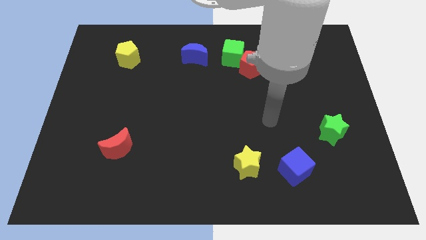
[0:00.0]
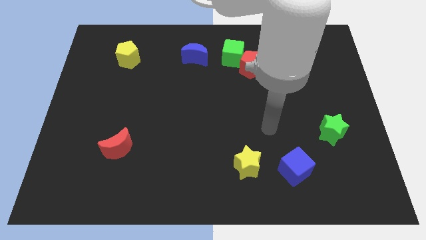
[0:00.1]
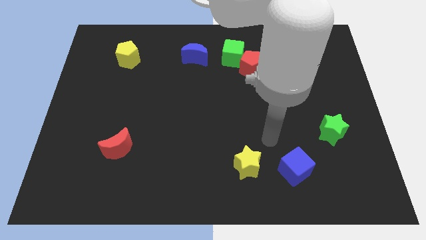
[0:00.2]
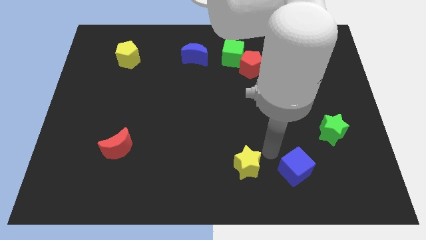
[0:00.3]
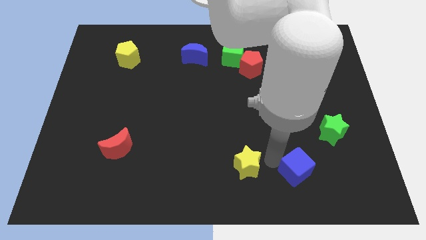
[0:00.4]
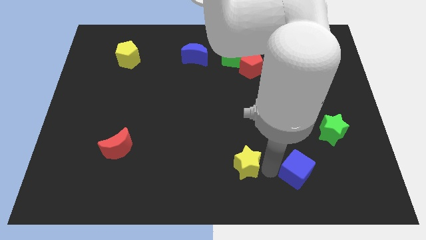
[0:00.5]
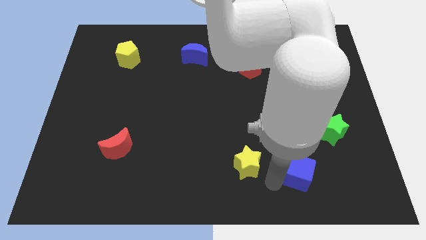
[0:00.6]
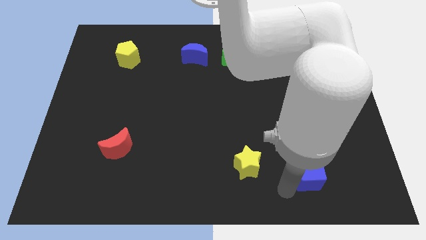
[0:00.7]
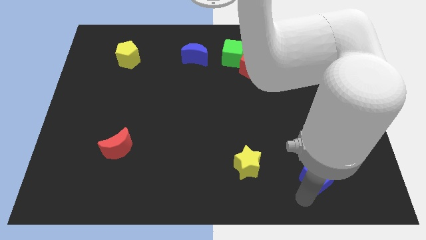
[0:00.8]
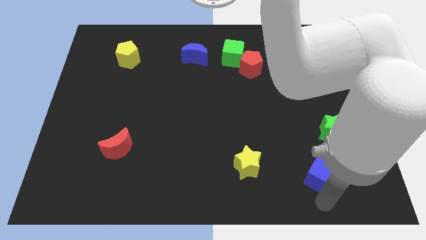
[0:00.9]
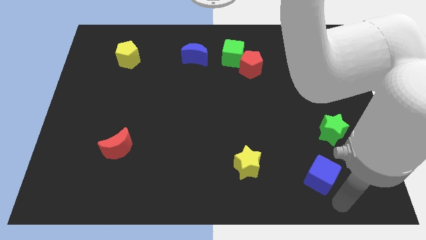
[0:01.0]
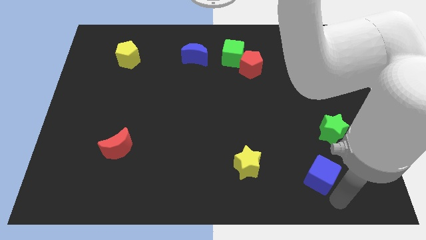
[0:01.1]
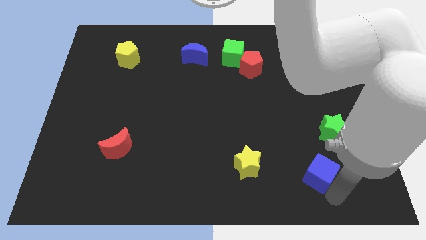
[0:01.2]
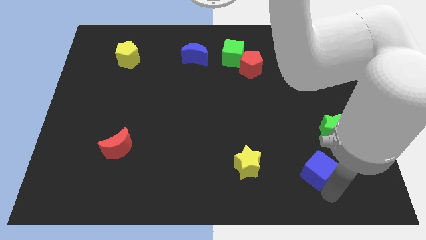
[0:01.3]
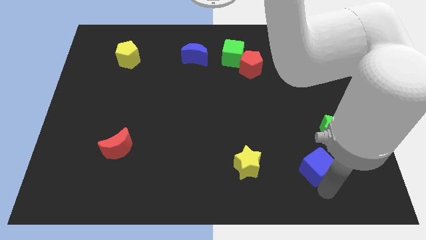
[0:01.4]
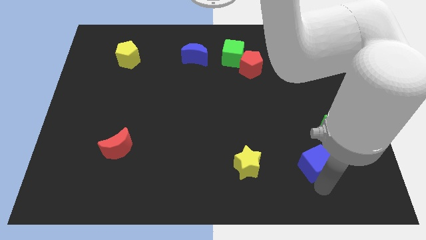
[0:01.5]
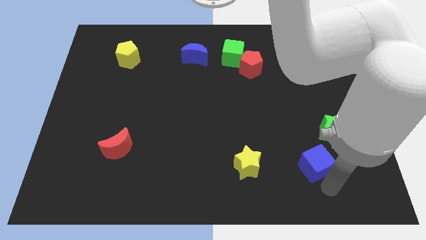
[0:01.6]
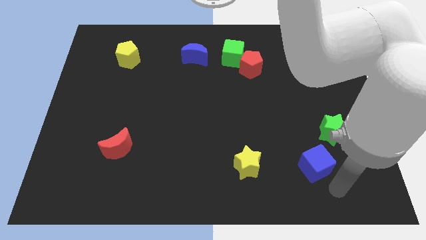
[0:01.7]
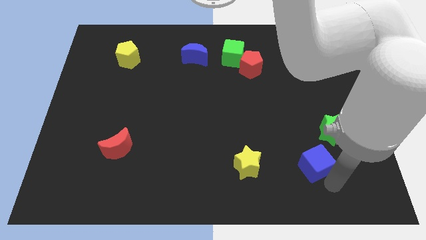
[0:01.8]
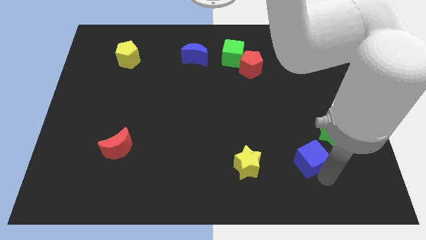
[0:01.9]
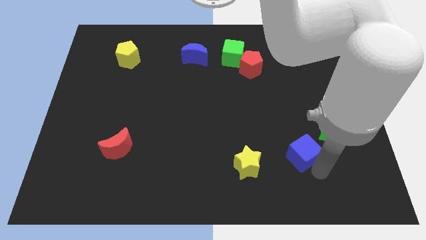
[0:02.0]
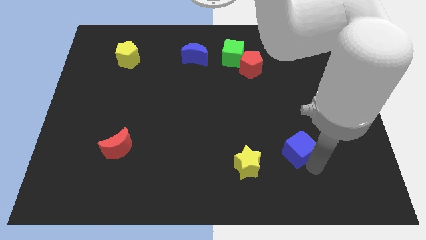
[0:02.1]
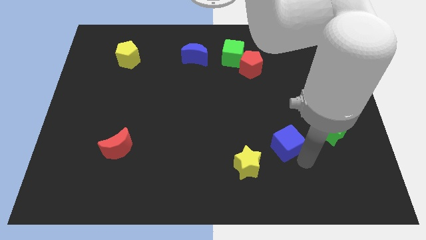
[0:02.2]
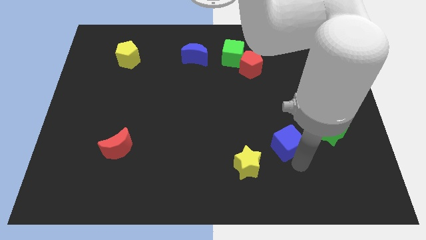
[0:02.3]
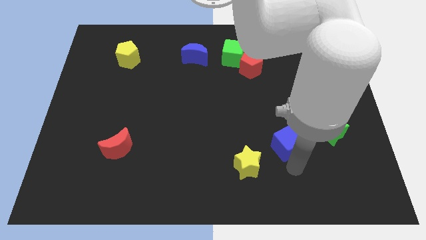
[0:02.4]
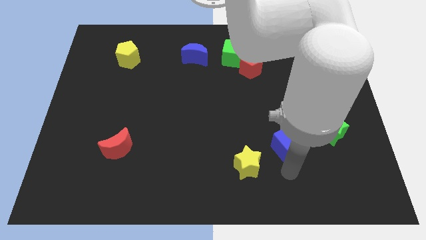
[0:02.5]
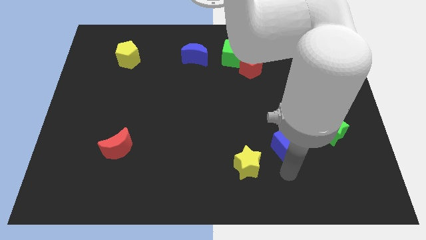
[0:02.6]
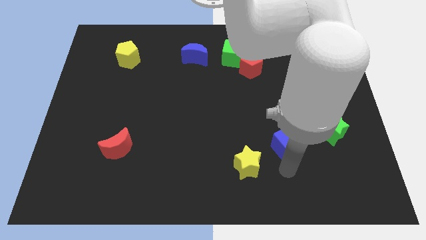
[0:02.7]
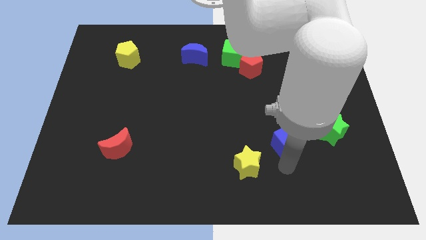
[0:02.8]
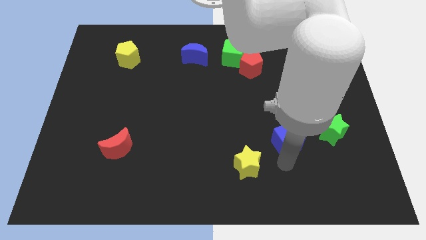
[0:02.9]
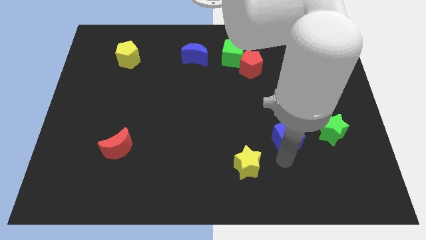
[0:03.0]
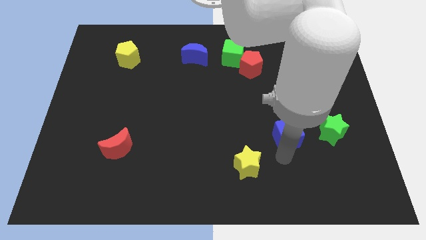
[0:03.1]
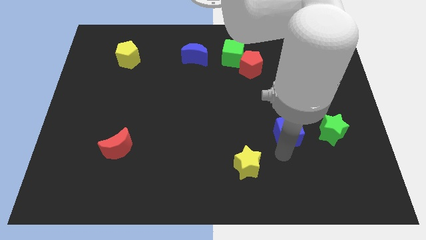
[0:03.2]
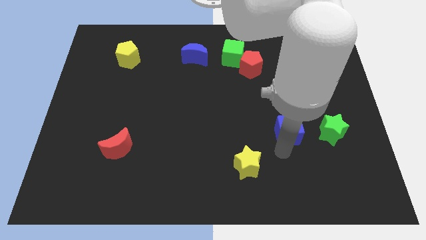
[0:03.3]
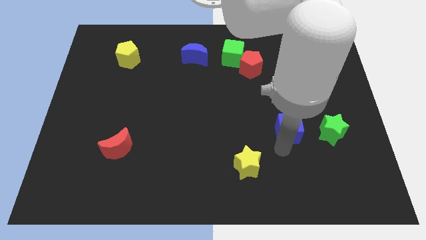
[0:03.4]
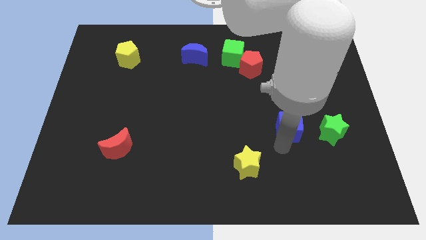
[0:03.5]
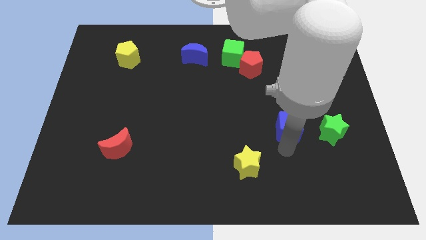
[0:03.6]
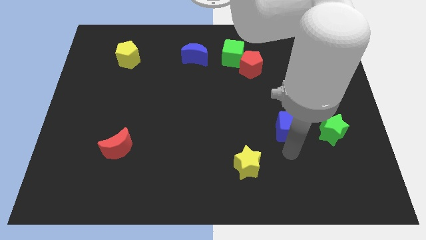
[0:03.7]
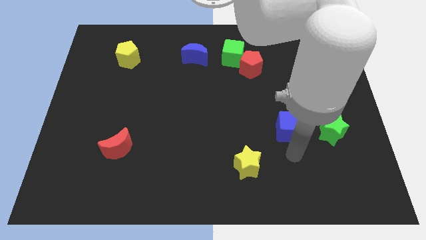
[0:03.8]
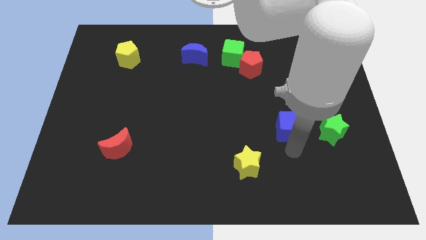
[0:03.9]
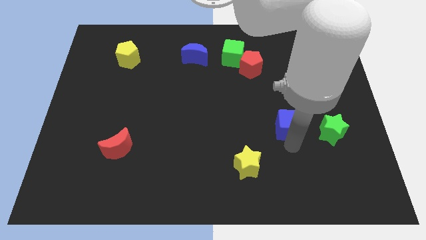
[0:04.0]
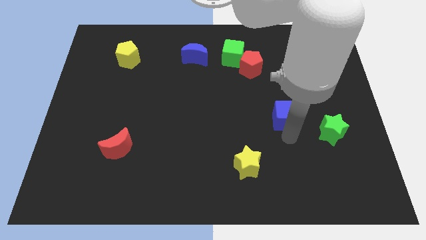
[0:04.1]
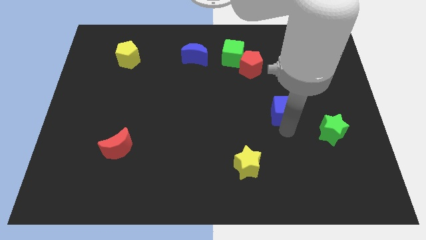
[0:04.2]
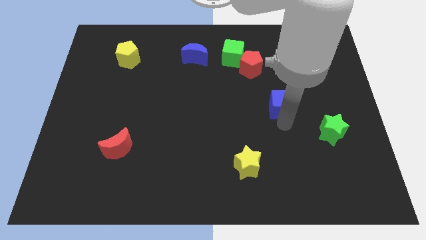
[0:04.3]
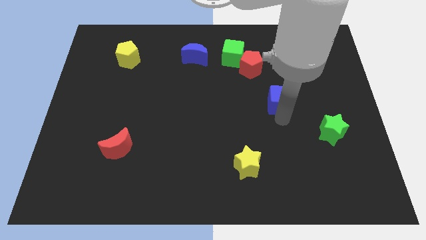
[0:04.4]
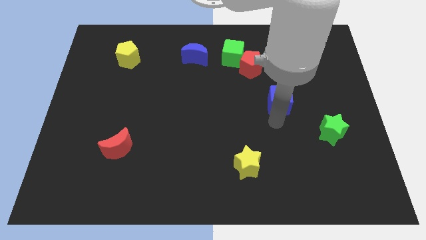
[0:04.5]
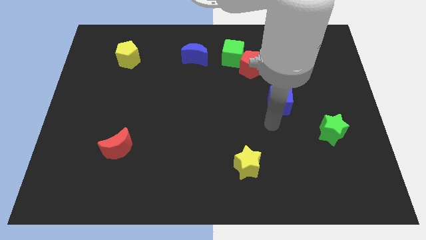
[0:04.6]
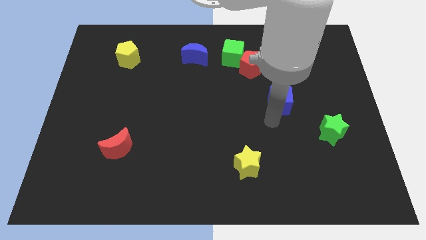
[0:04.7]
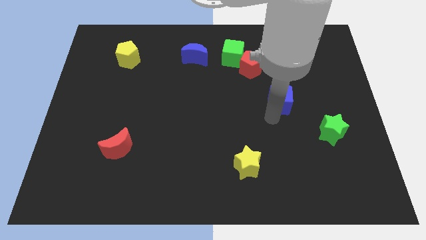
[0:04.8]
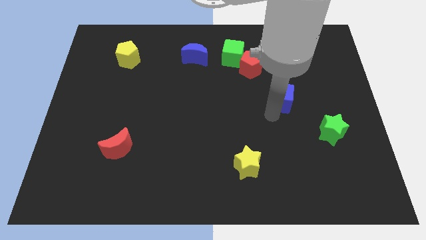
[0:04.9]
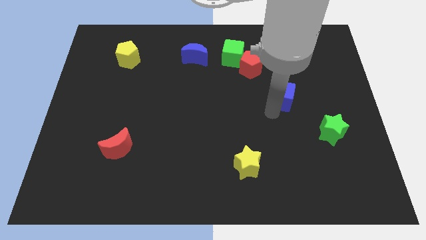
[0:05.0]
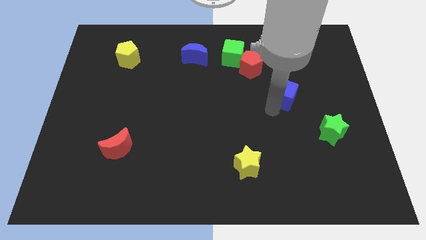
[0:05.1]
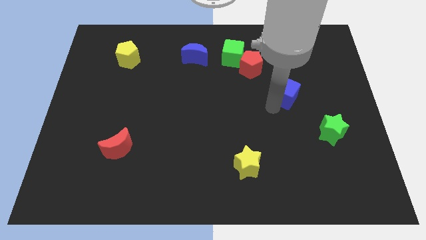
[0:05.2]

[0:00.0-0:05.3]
slide the blue cube upwards

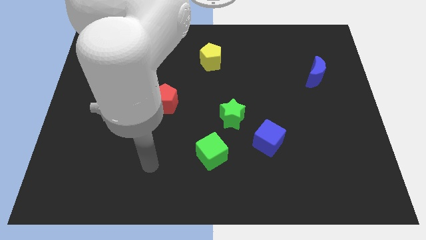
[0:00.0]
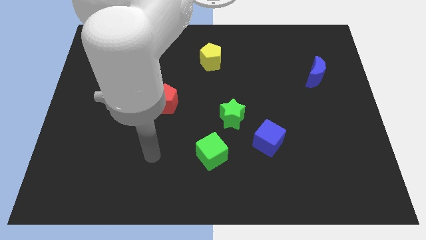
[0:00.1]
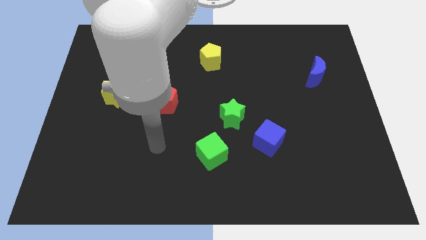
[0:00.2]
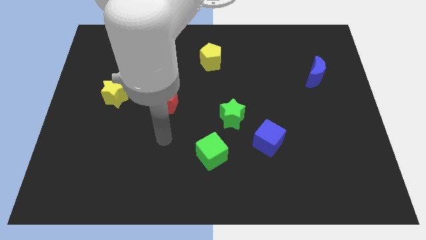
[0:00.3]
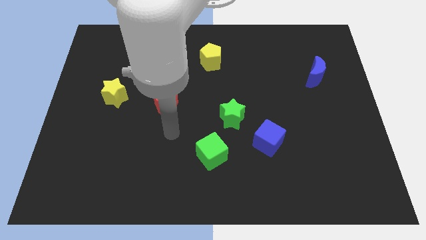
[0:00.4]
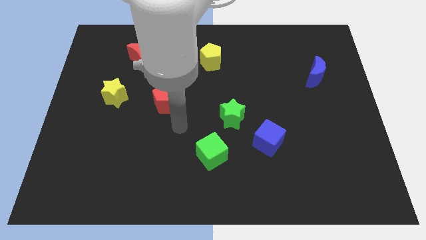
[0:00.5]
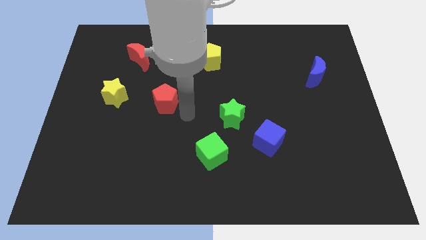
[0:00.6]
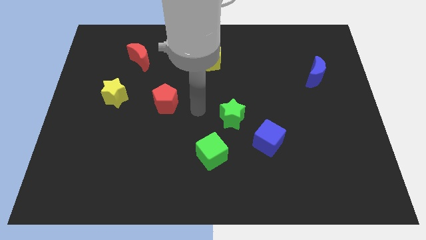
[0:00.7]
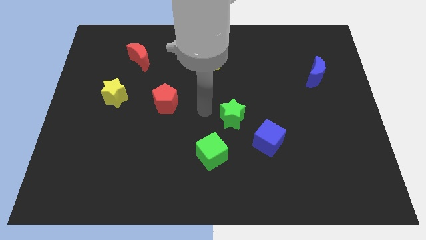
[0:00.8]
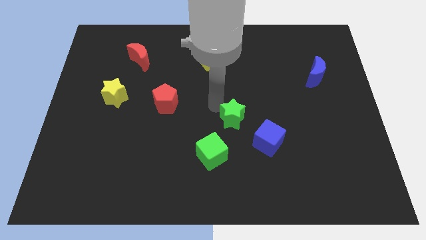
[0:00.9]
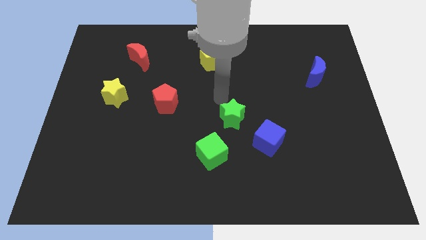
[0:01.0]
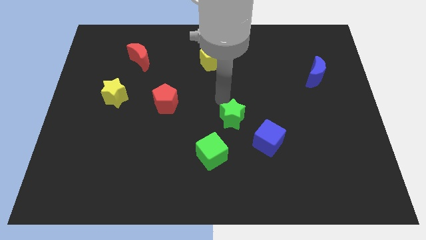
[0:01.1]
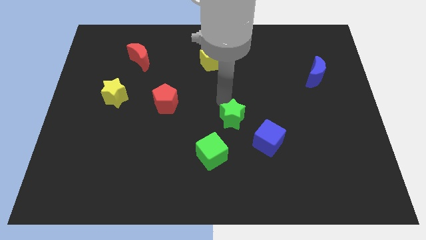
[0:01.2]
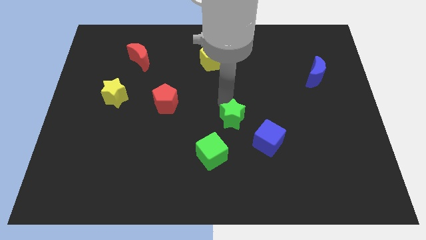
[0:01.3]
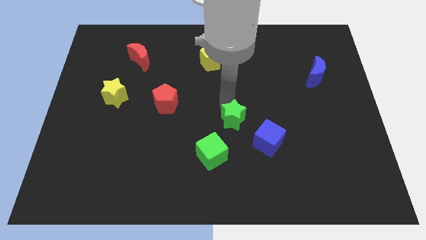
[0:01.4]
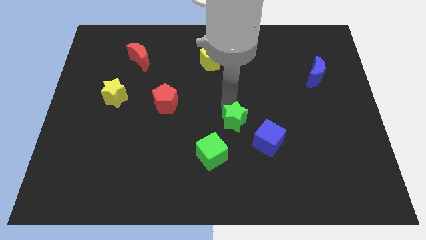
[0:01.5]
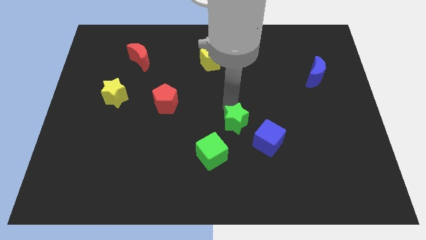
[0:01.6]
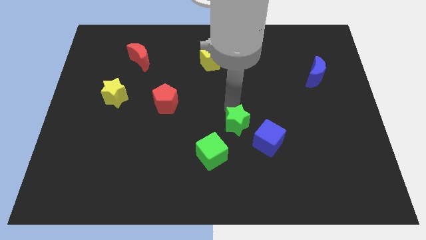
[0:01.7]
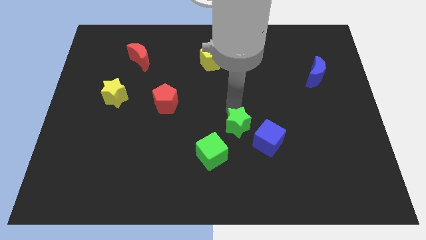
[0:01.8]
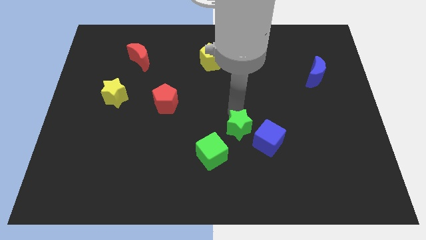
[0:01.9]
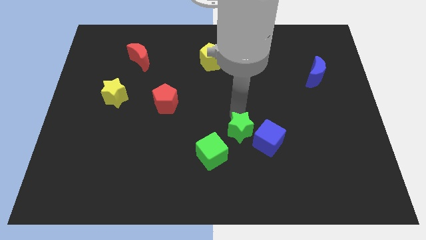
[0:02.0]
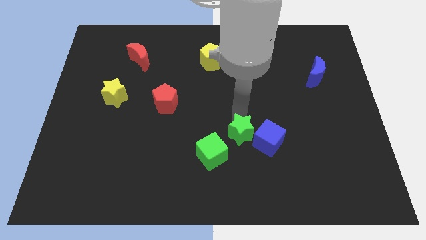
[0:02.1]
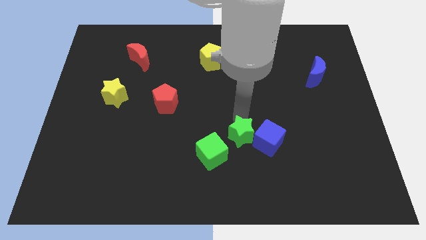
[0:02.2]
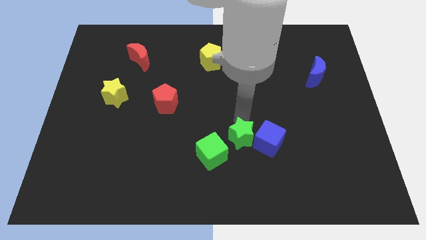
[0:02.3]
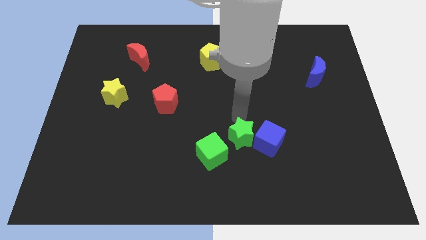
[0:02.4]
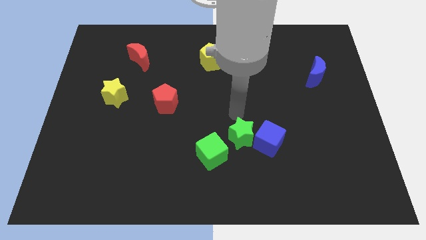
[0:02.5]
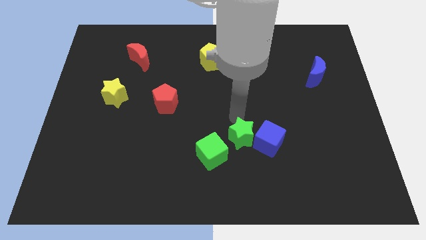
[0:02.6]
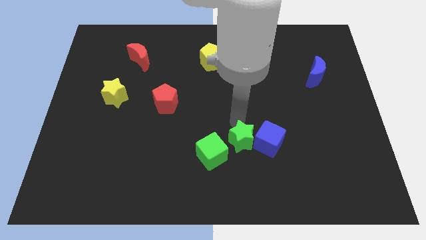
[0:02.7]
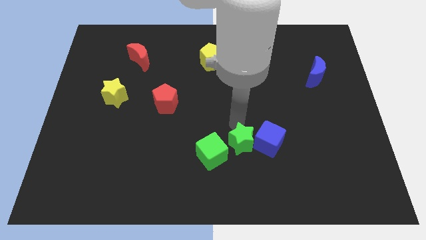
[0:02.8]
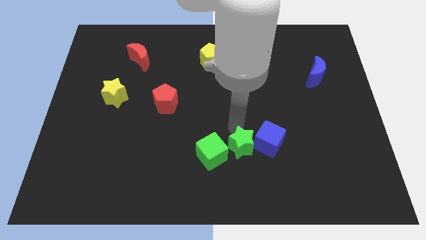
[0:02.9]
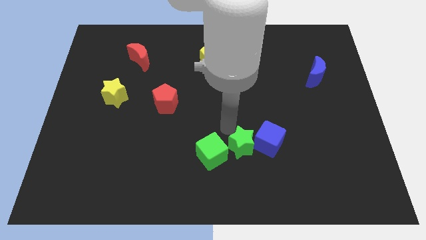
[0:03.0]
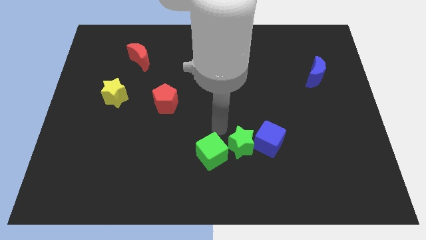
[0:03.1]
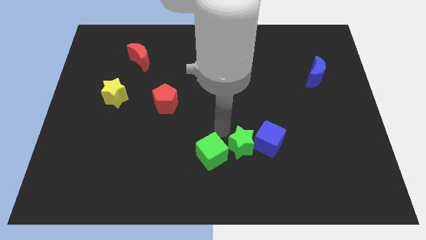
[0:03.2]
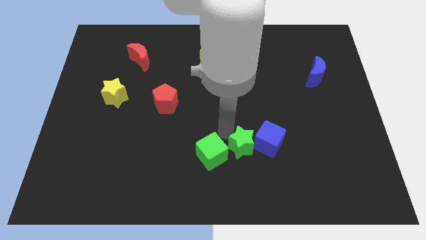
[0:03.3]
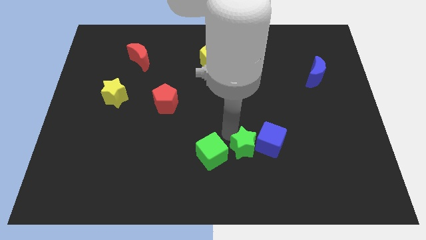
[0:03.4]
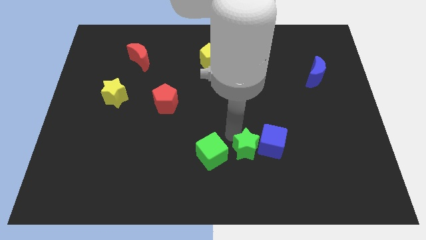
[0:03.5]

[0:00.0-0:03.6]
slide the green star down and then to the right a little bit
